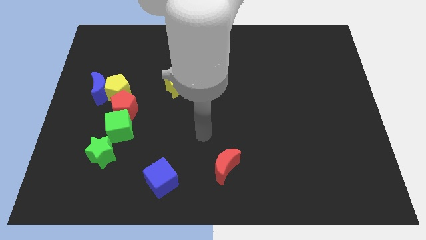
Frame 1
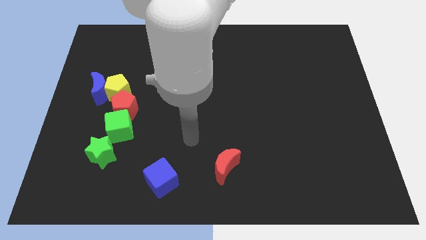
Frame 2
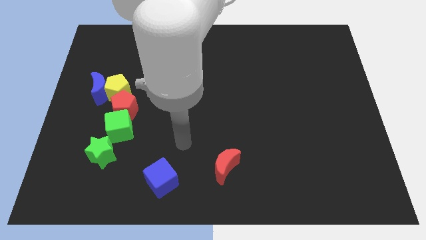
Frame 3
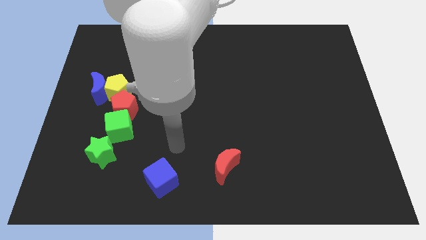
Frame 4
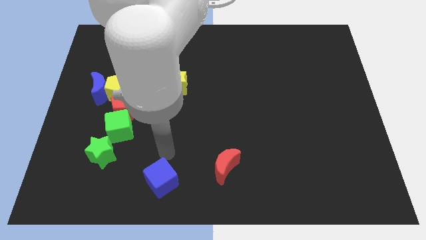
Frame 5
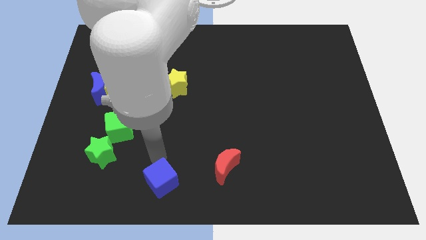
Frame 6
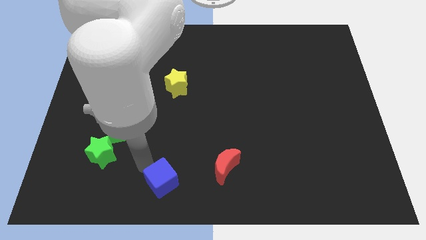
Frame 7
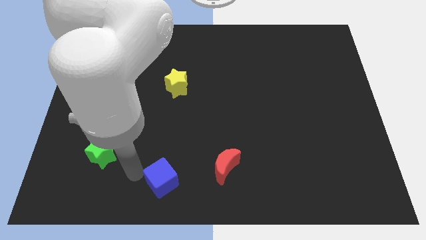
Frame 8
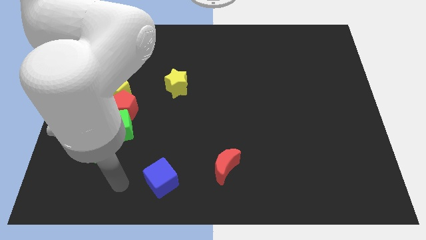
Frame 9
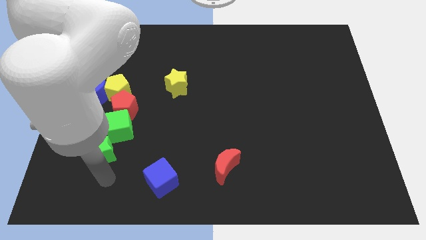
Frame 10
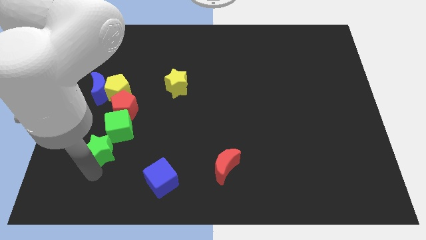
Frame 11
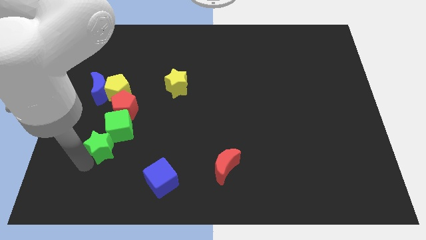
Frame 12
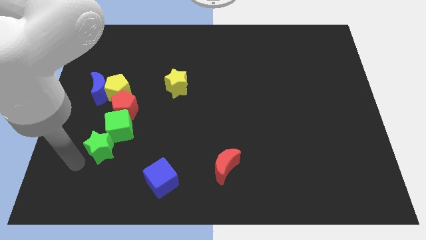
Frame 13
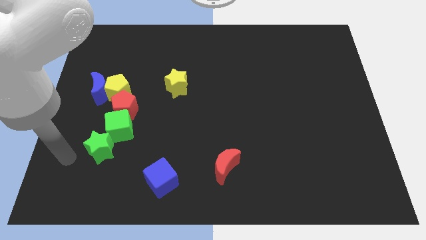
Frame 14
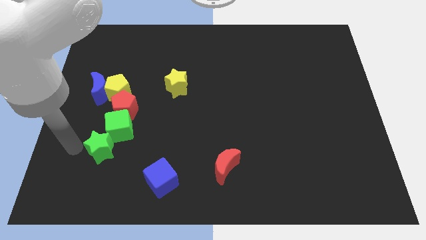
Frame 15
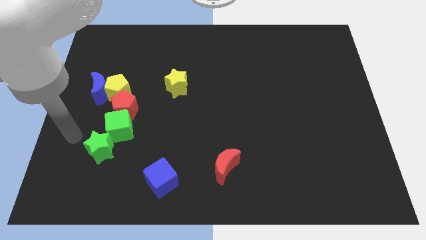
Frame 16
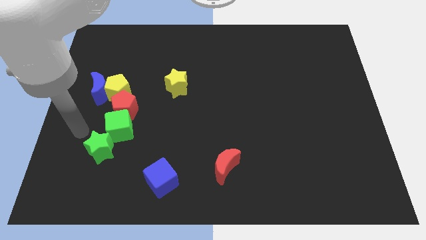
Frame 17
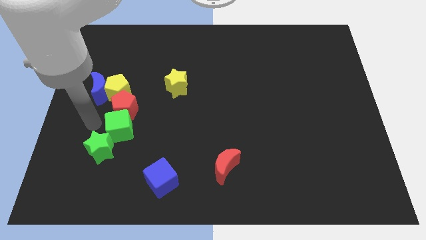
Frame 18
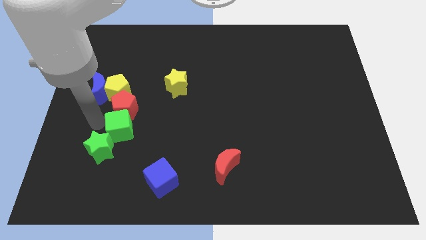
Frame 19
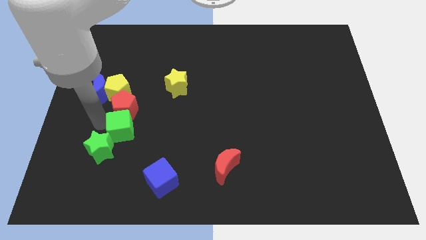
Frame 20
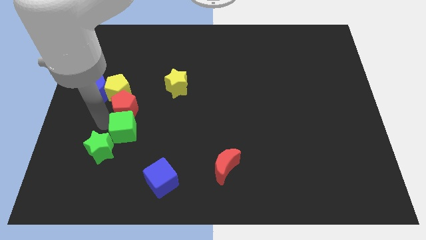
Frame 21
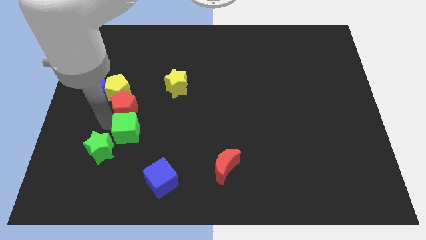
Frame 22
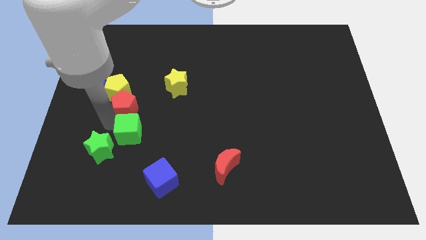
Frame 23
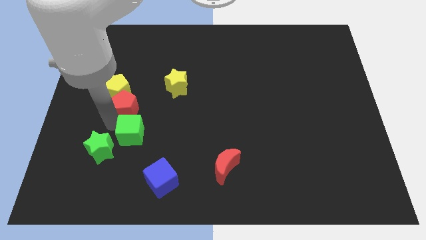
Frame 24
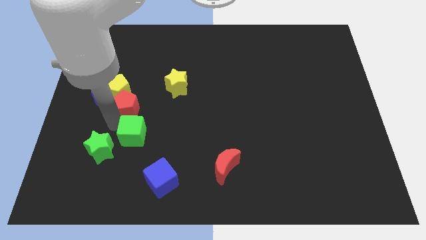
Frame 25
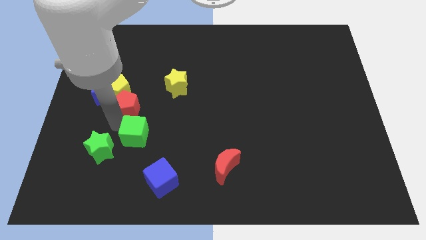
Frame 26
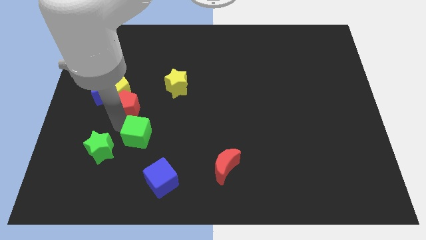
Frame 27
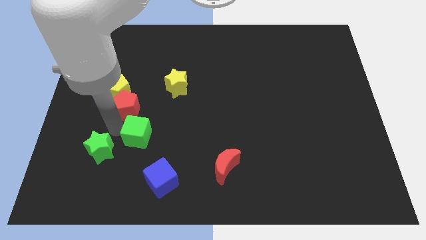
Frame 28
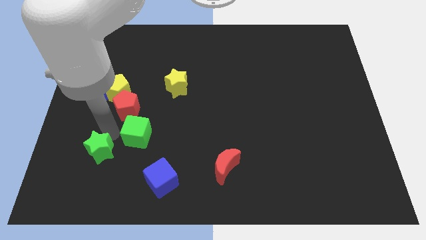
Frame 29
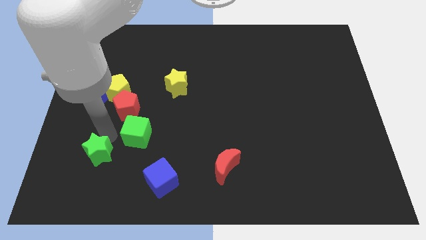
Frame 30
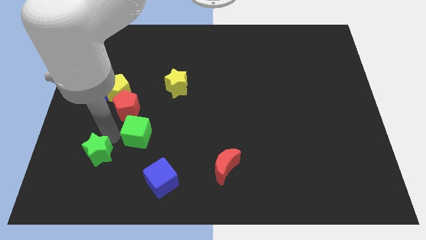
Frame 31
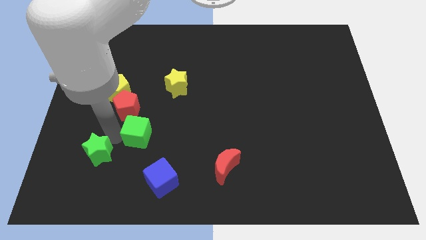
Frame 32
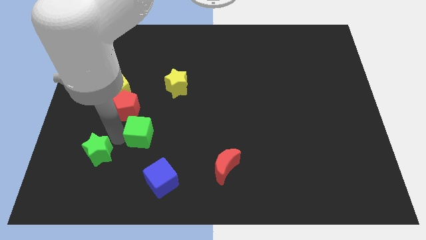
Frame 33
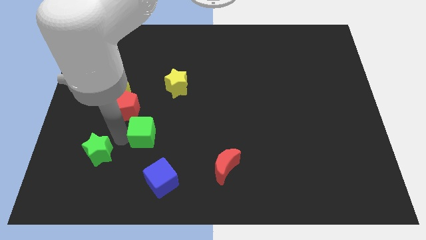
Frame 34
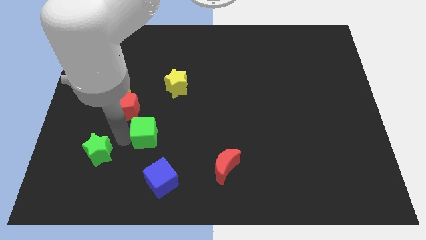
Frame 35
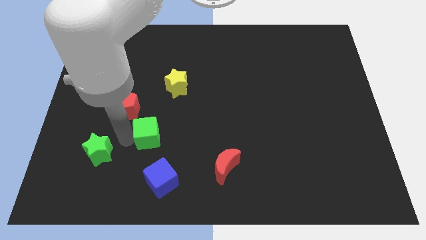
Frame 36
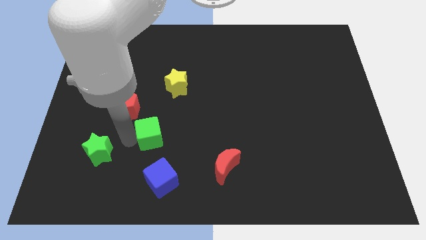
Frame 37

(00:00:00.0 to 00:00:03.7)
push the green cube to the right slightly

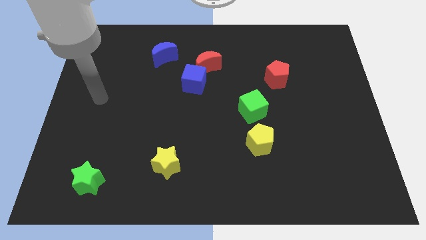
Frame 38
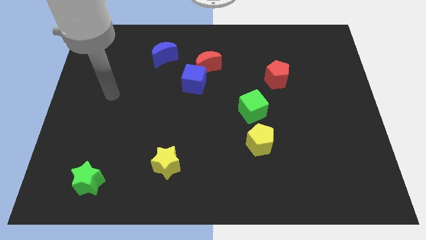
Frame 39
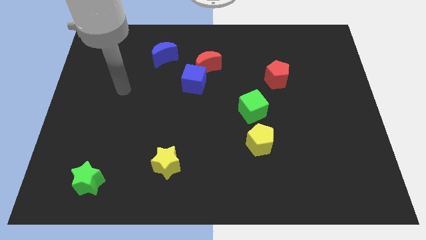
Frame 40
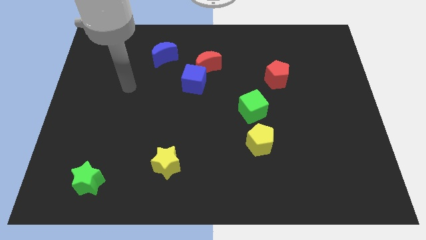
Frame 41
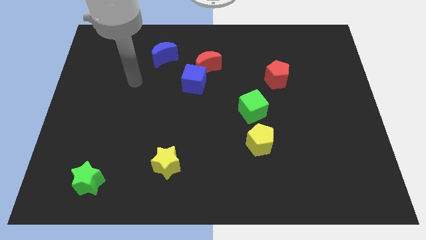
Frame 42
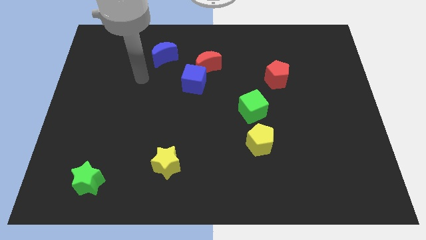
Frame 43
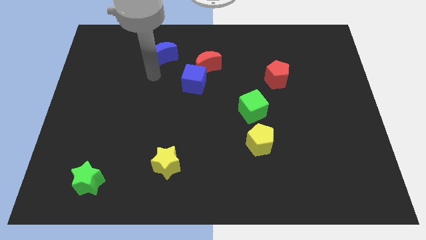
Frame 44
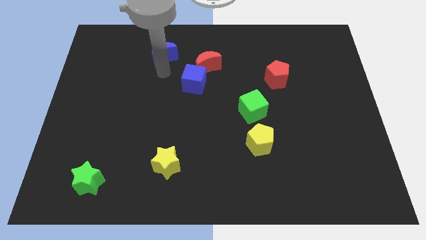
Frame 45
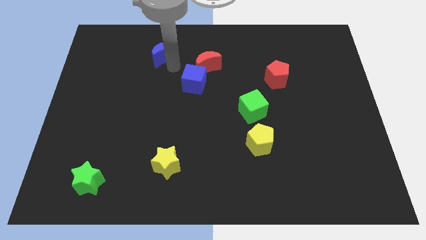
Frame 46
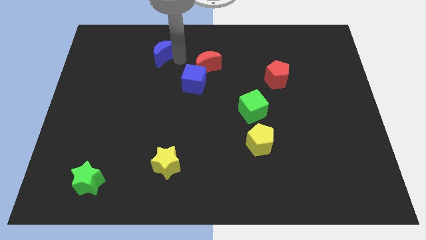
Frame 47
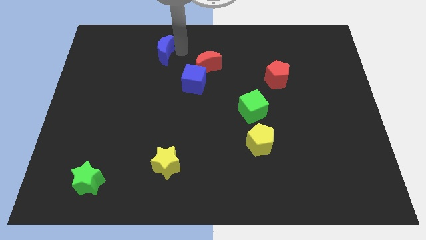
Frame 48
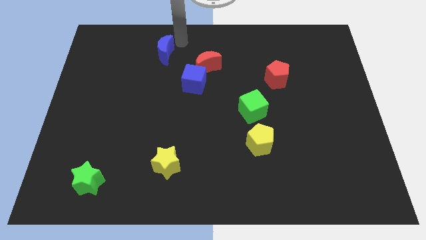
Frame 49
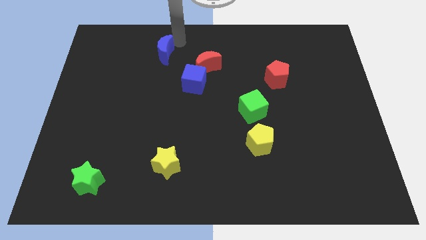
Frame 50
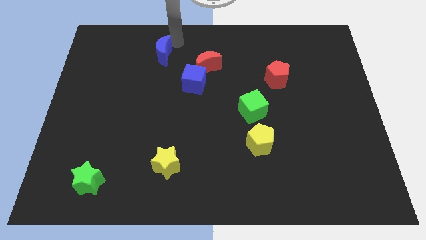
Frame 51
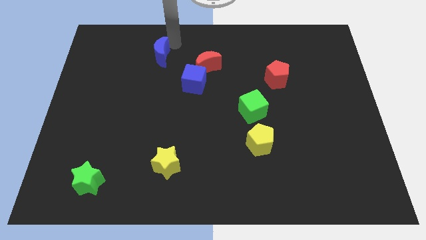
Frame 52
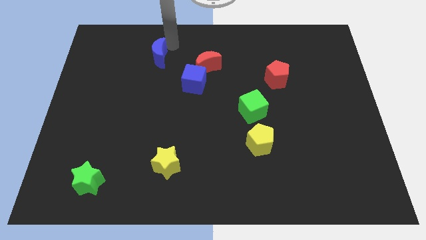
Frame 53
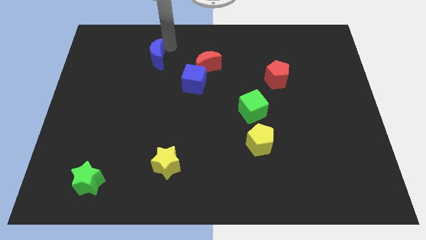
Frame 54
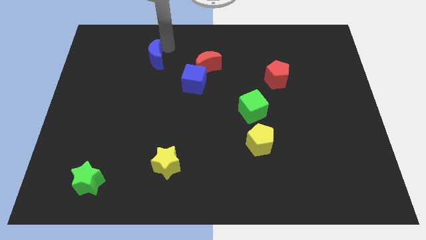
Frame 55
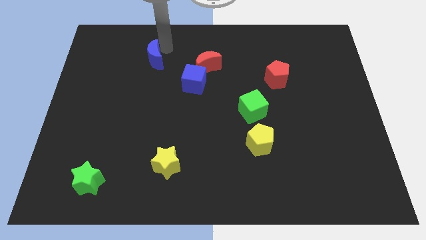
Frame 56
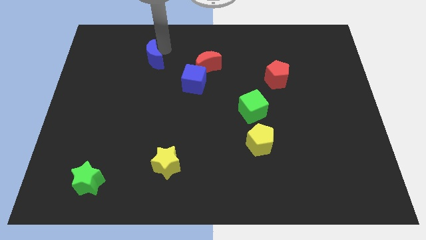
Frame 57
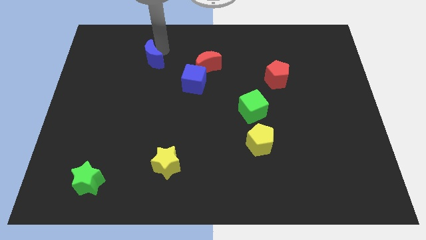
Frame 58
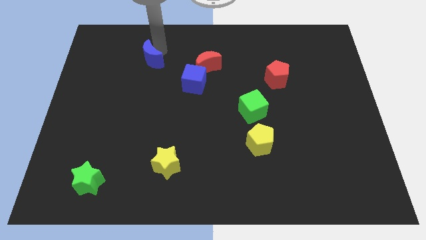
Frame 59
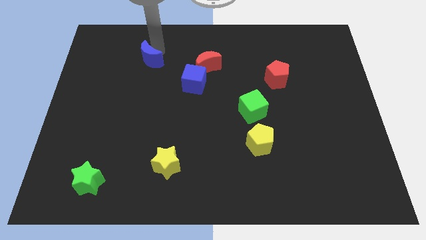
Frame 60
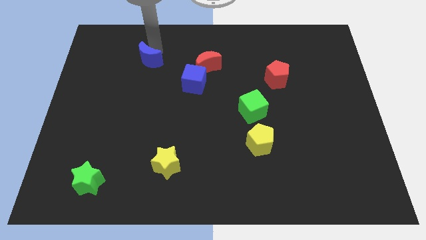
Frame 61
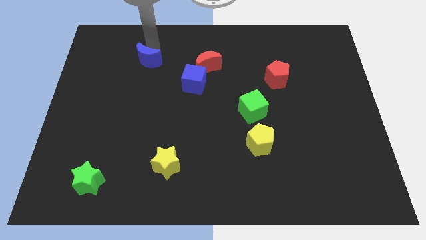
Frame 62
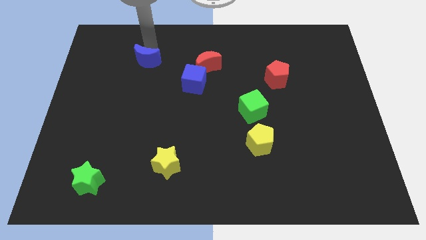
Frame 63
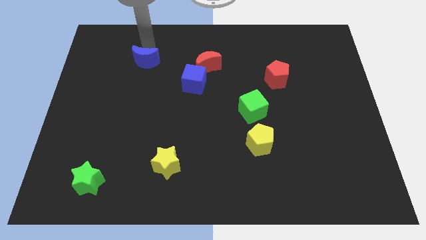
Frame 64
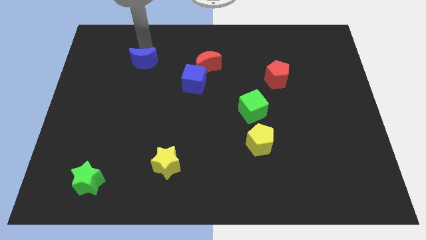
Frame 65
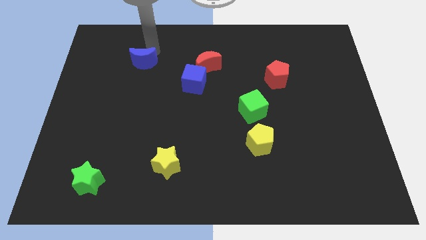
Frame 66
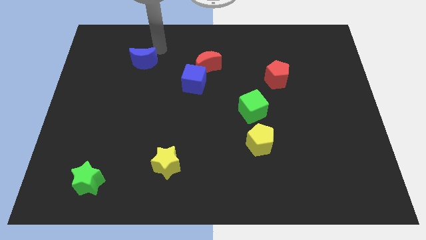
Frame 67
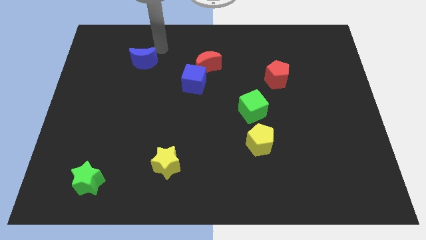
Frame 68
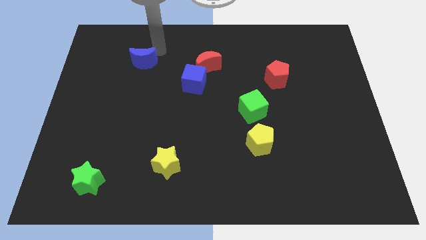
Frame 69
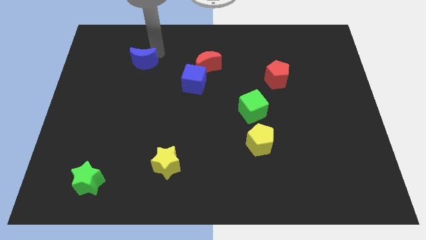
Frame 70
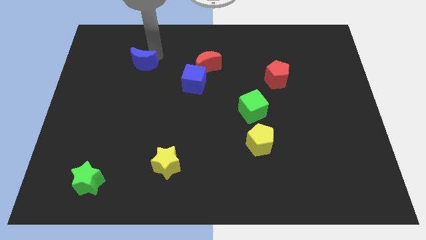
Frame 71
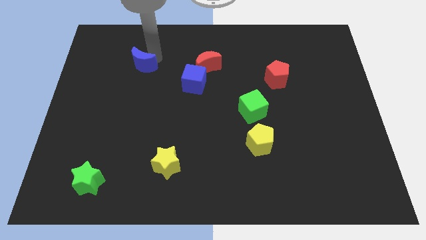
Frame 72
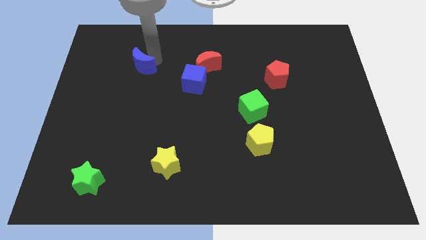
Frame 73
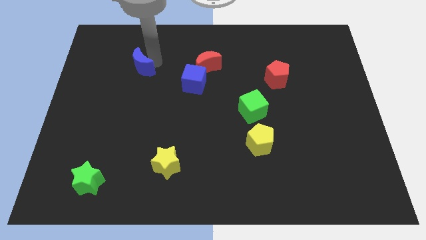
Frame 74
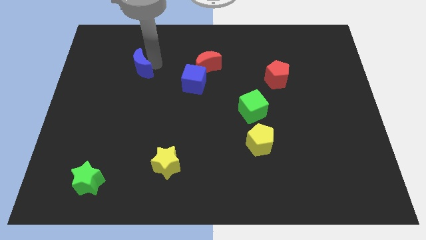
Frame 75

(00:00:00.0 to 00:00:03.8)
slightly slide the blue moon down and then to the left
